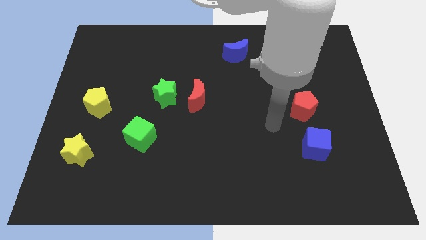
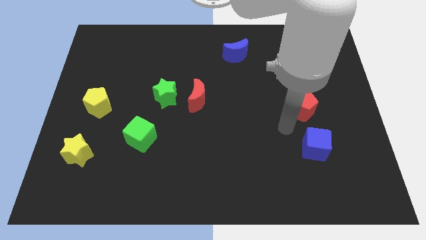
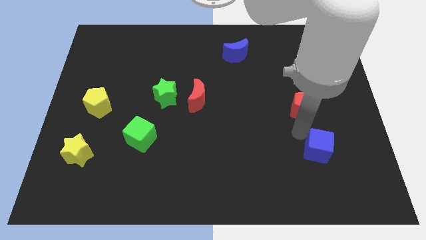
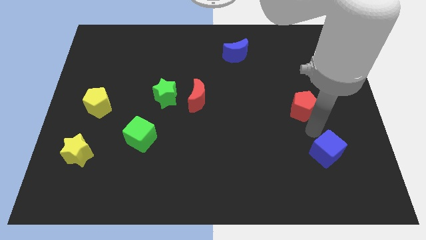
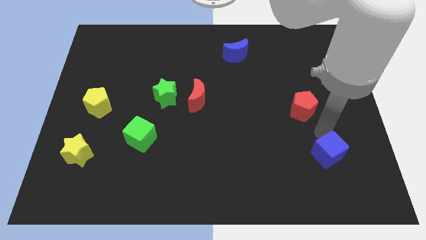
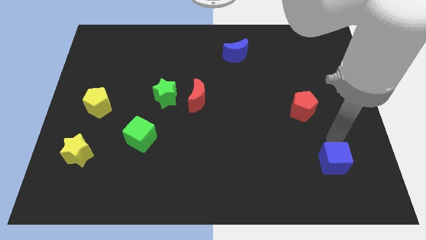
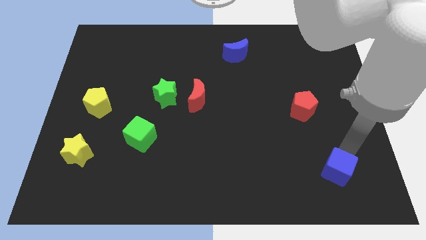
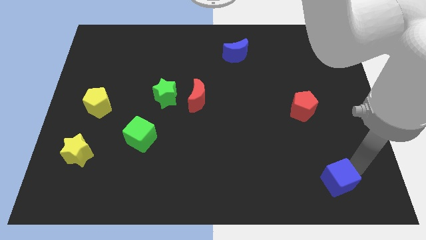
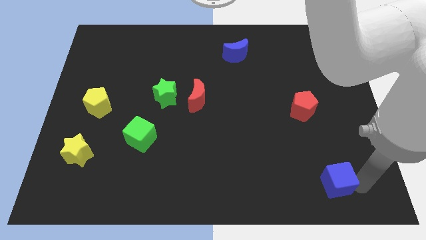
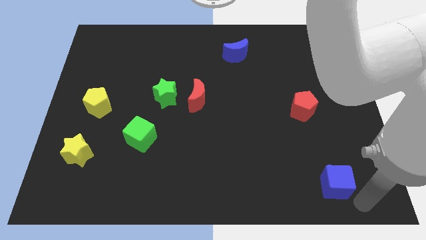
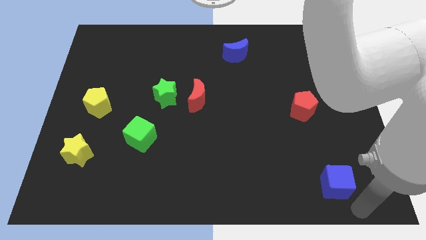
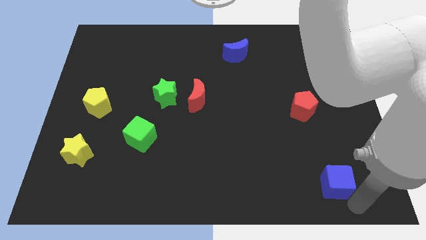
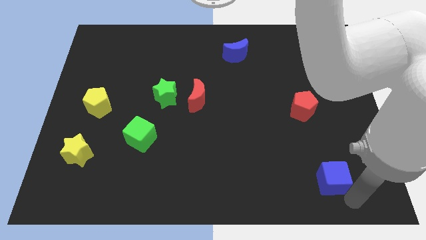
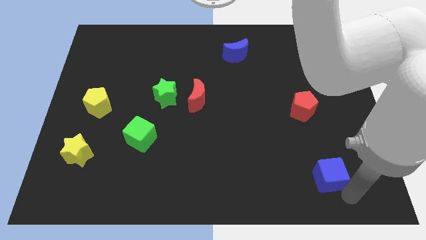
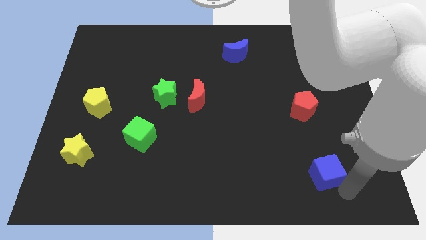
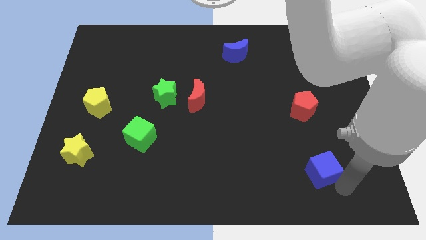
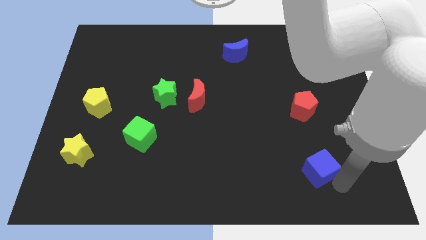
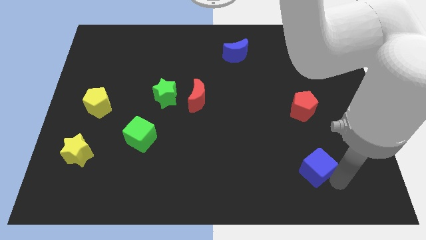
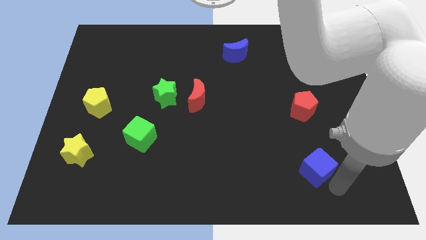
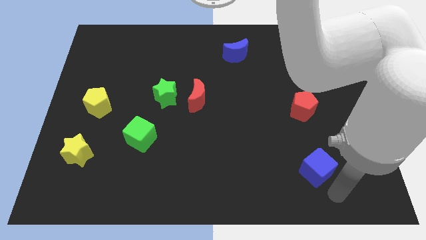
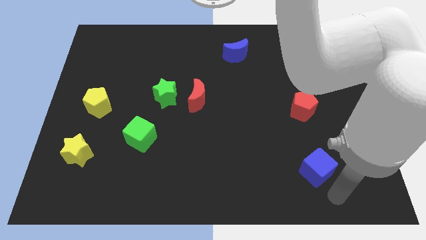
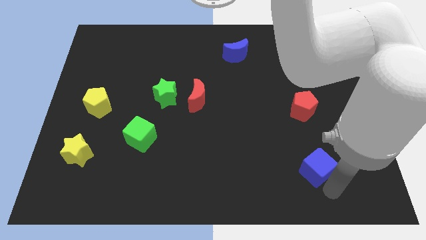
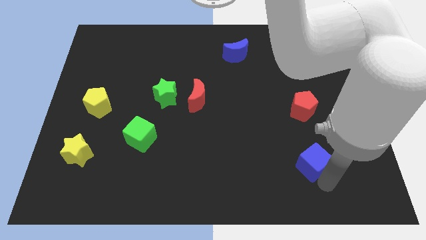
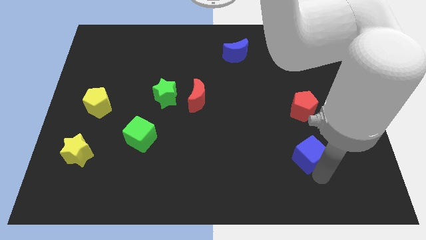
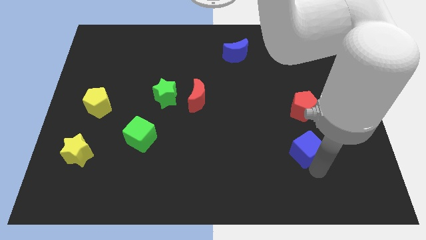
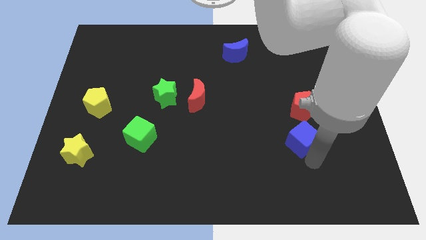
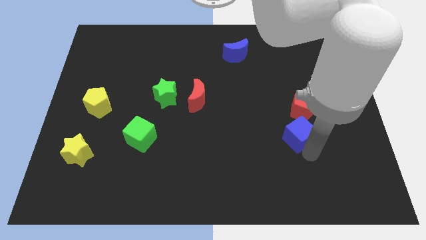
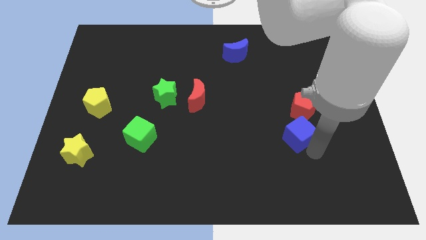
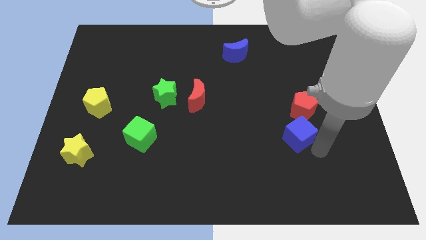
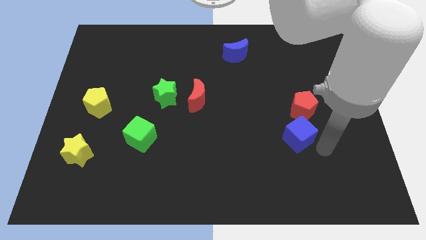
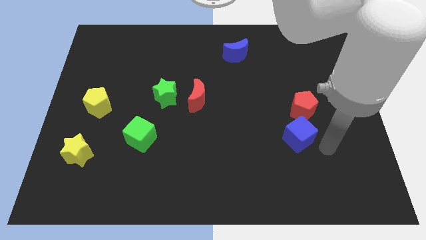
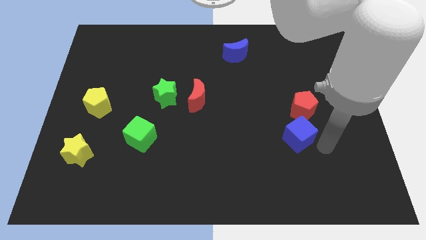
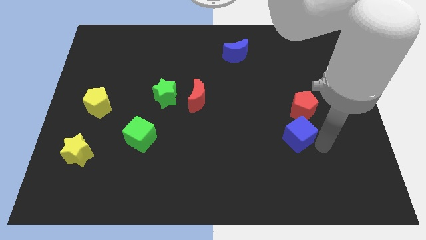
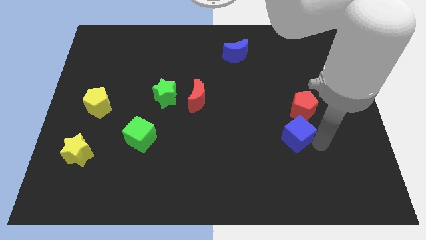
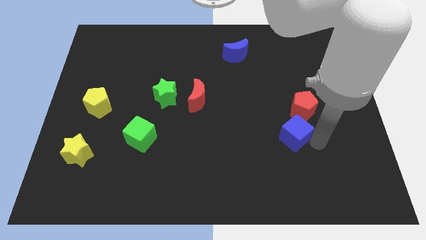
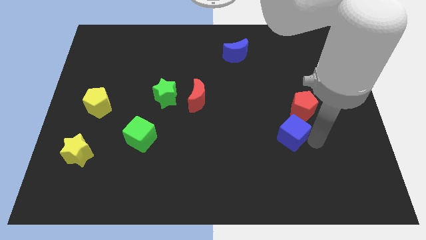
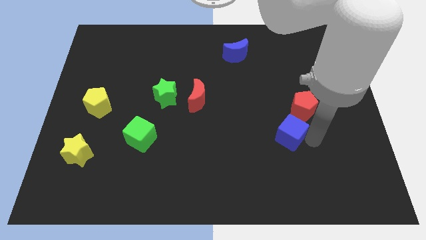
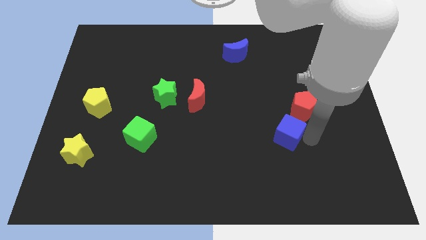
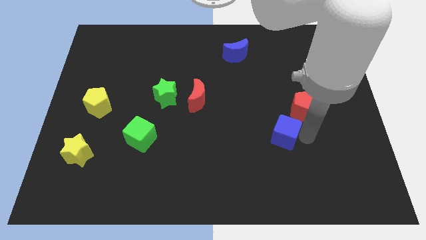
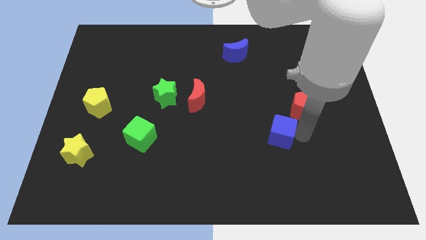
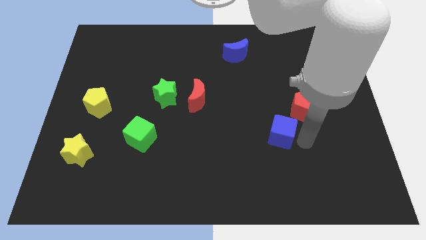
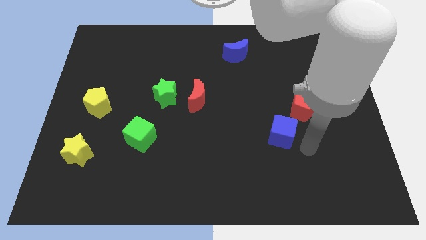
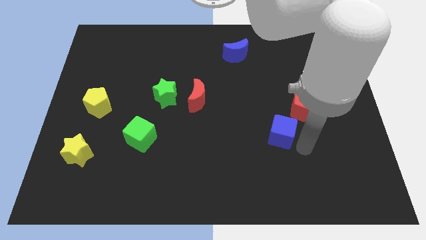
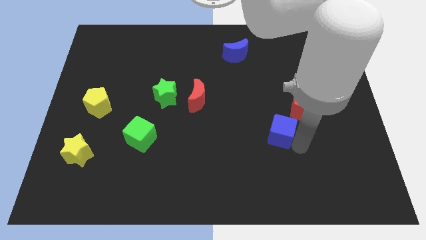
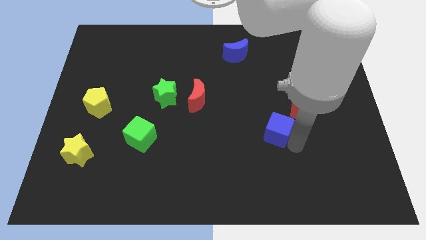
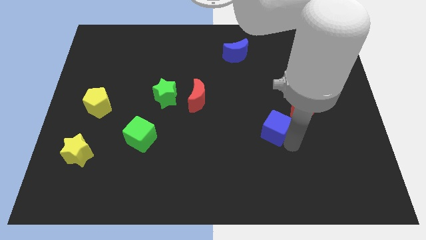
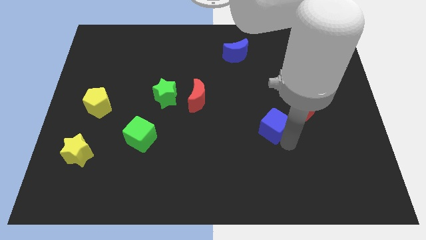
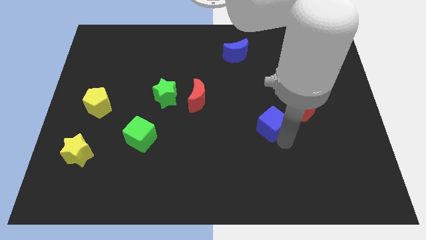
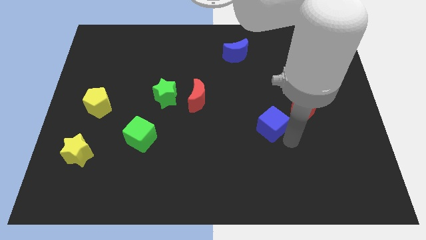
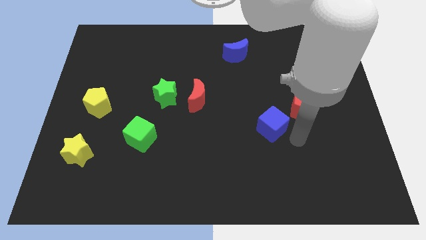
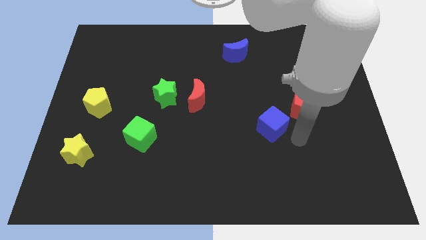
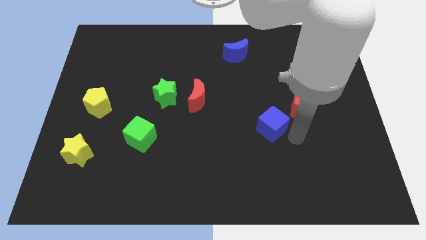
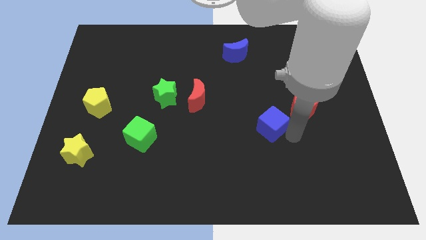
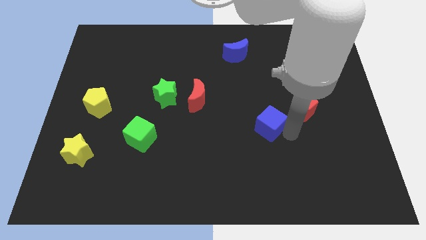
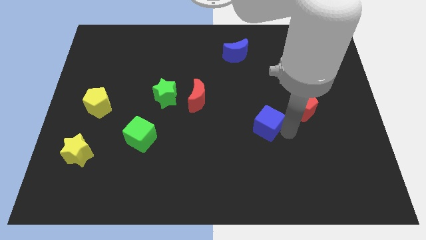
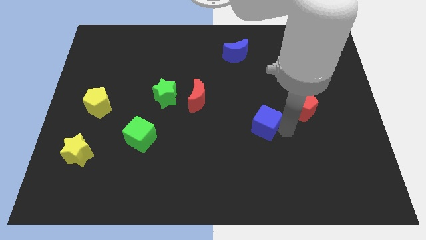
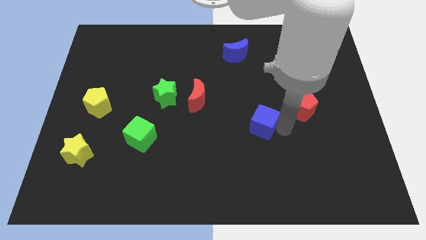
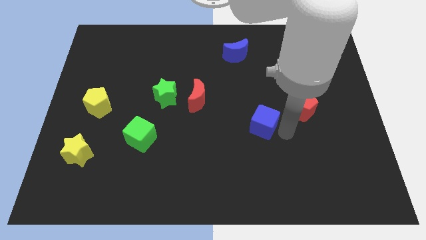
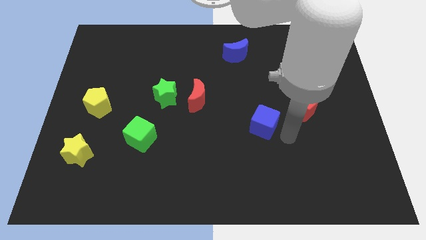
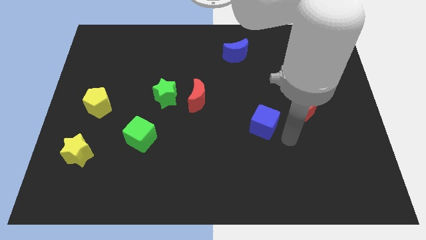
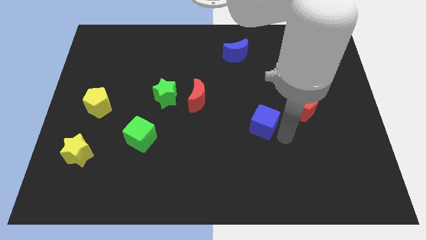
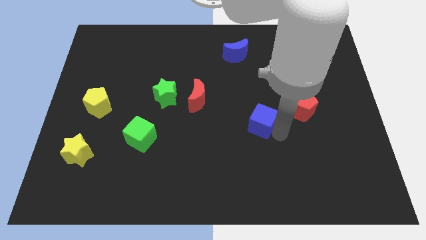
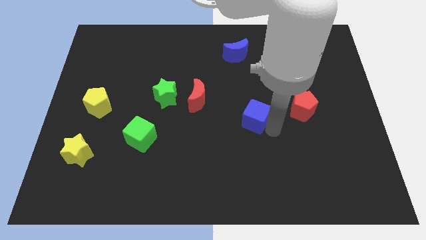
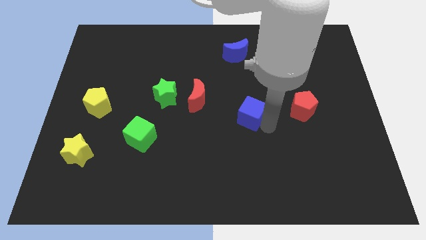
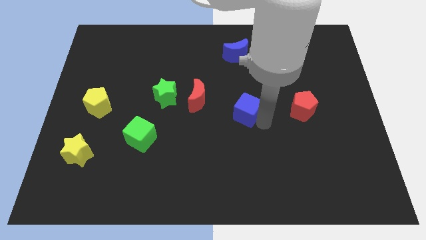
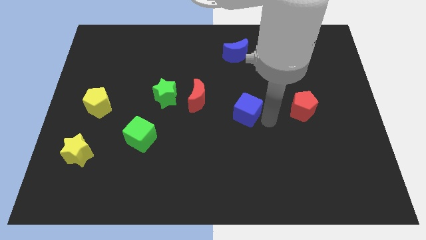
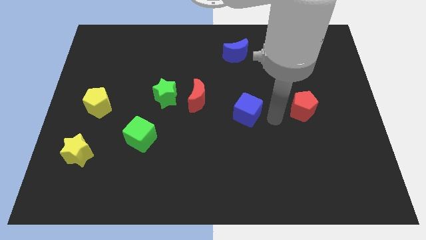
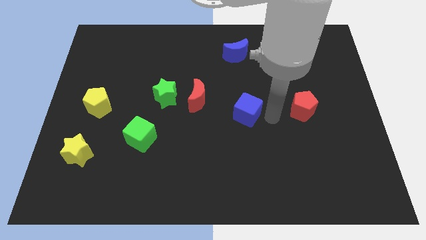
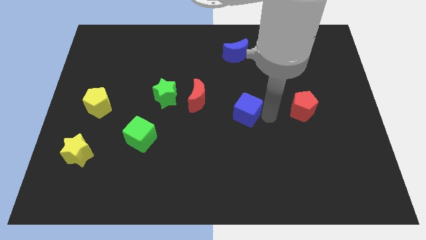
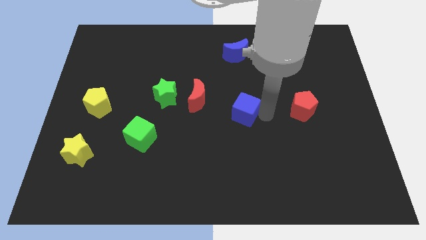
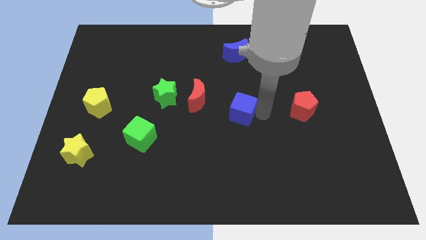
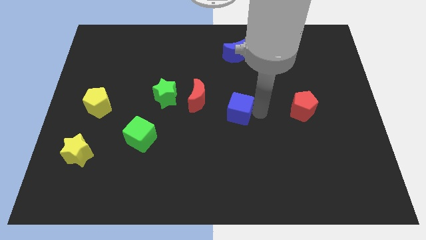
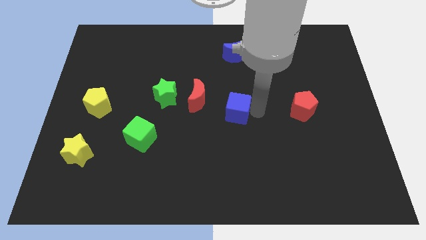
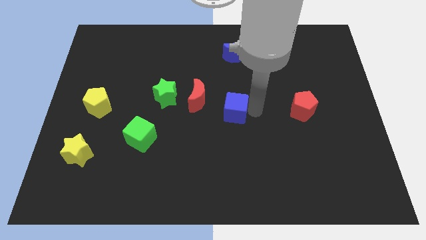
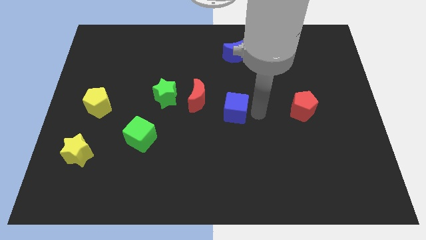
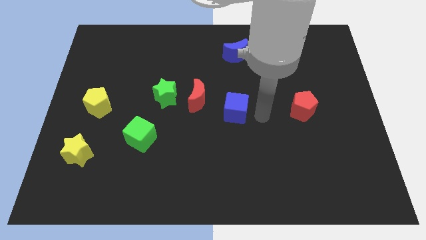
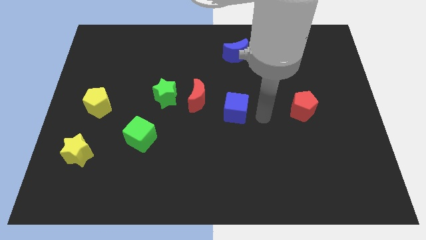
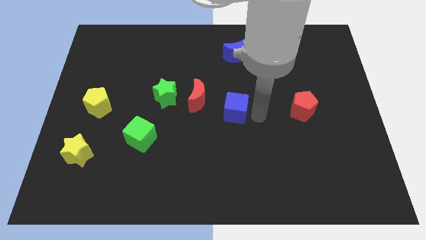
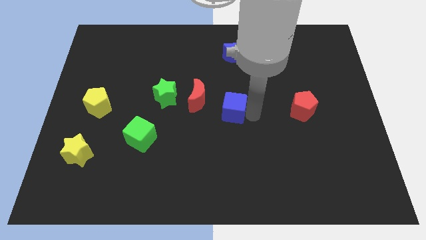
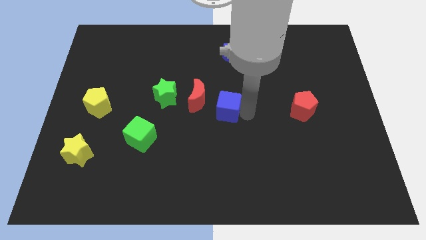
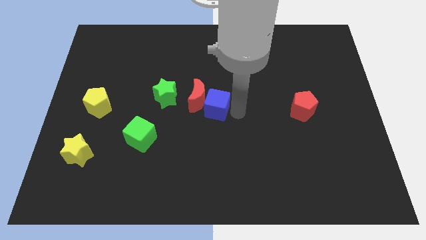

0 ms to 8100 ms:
move the blue cube close to the red moon
